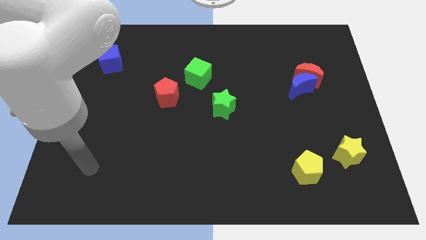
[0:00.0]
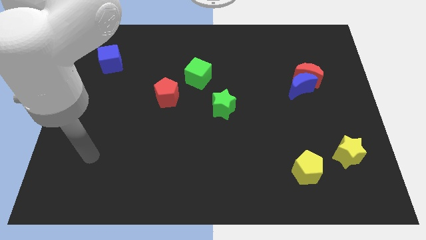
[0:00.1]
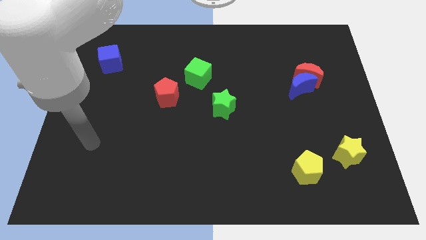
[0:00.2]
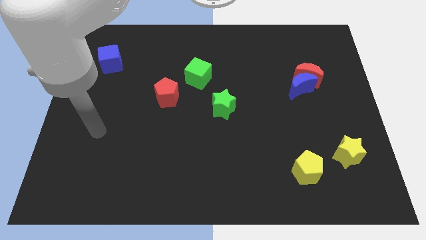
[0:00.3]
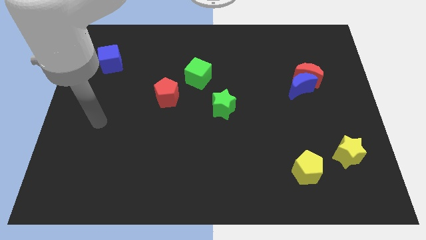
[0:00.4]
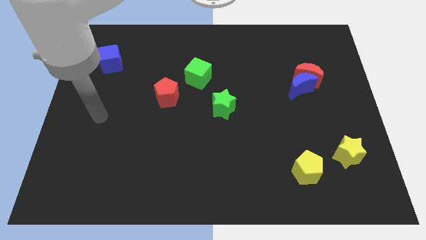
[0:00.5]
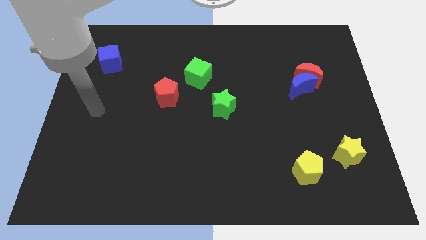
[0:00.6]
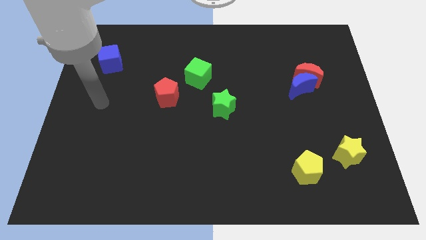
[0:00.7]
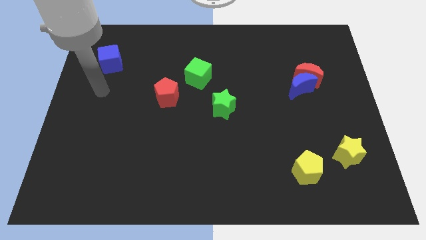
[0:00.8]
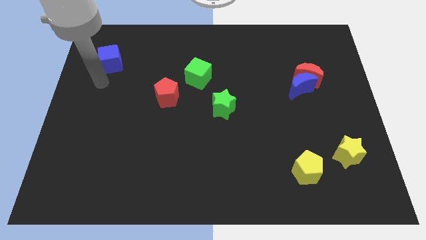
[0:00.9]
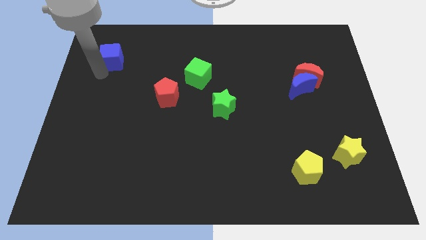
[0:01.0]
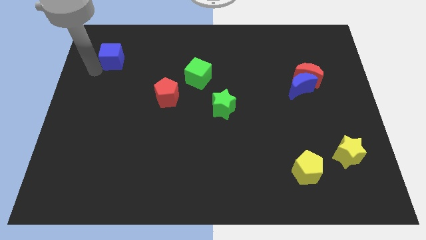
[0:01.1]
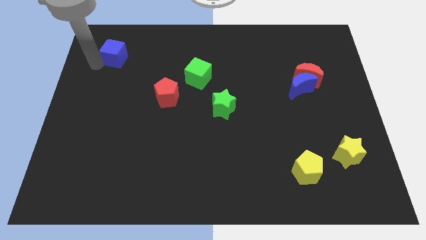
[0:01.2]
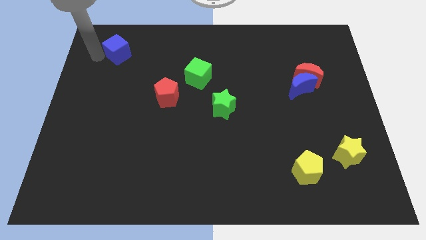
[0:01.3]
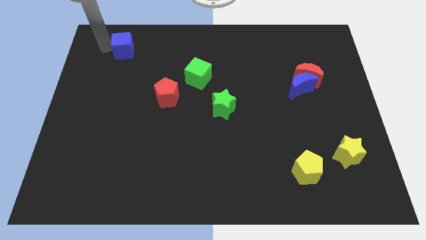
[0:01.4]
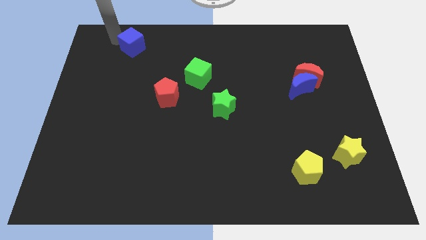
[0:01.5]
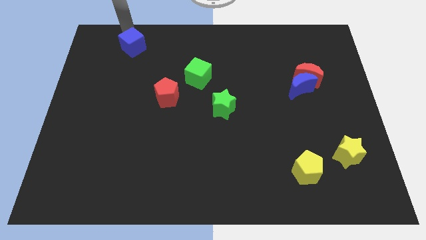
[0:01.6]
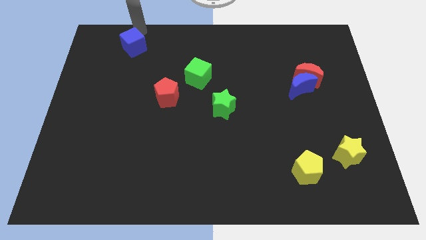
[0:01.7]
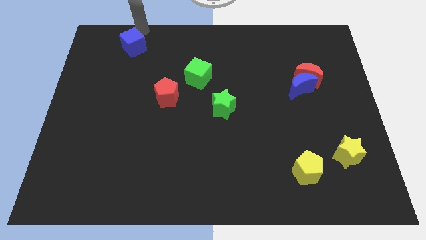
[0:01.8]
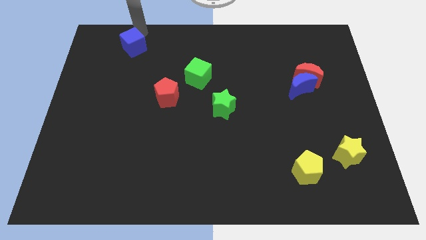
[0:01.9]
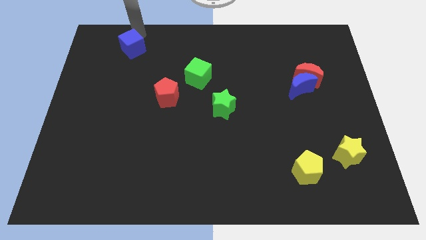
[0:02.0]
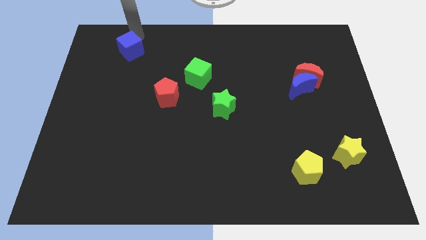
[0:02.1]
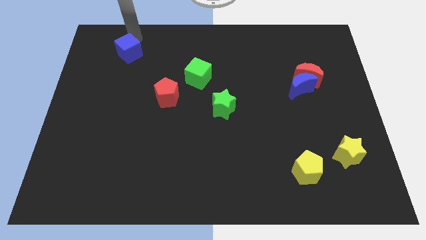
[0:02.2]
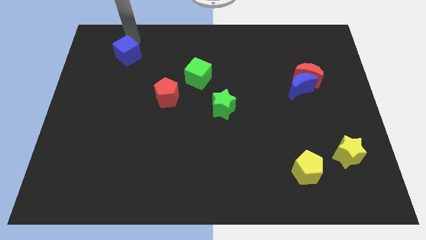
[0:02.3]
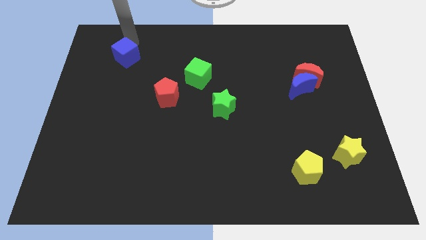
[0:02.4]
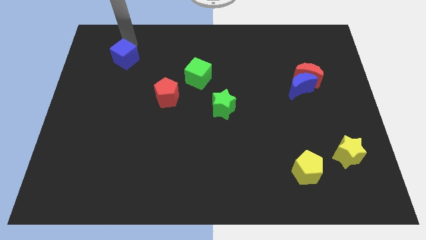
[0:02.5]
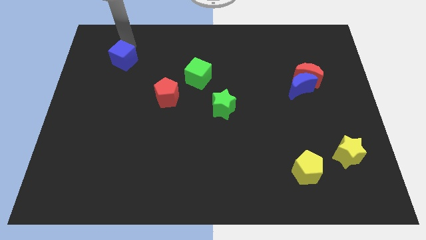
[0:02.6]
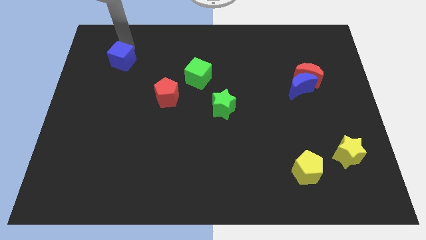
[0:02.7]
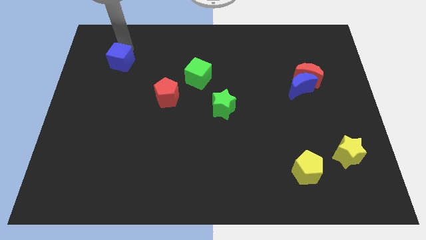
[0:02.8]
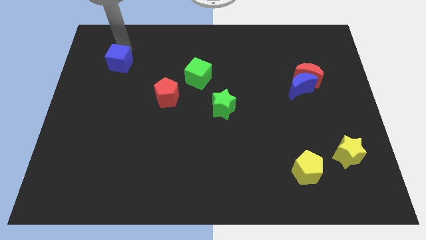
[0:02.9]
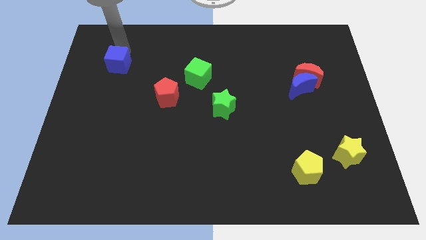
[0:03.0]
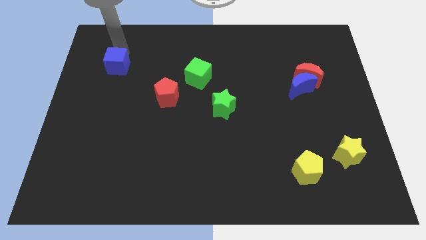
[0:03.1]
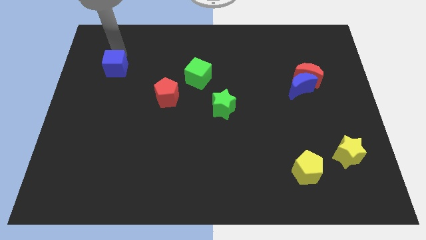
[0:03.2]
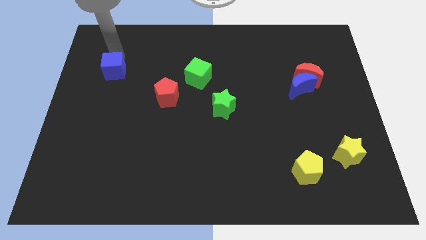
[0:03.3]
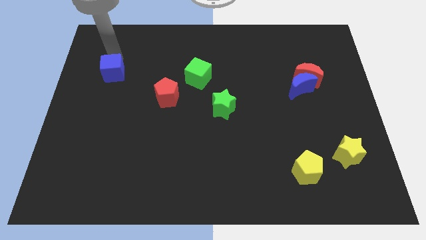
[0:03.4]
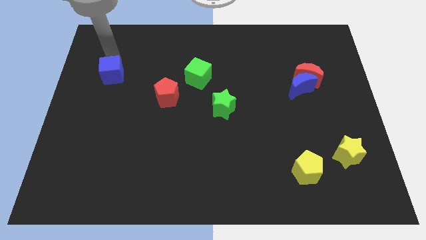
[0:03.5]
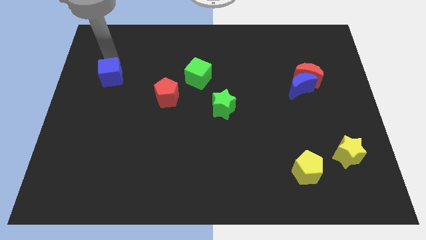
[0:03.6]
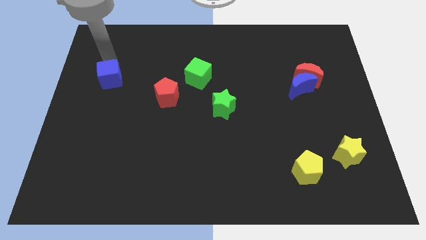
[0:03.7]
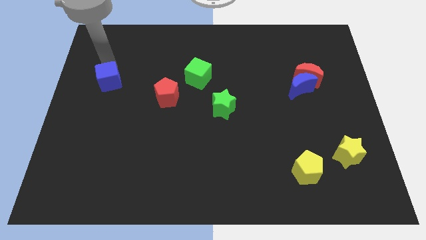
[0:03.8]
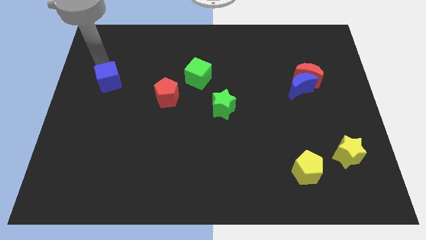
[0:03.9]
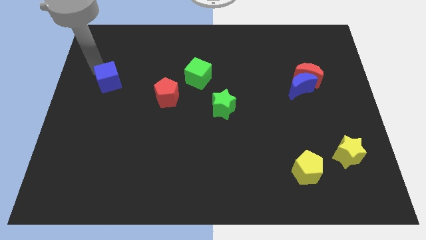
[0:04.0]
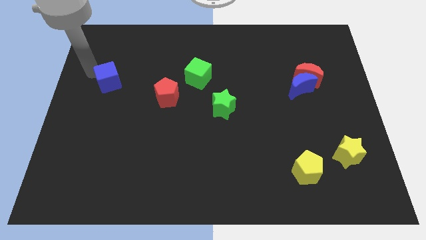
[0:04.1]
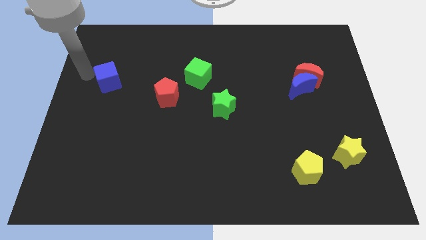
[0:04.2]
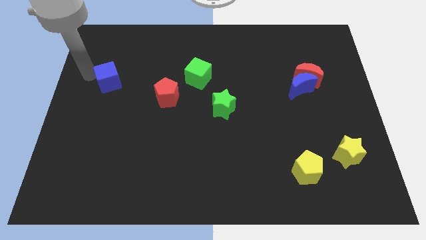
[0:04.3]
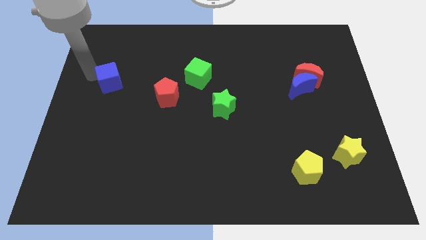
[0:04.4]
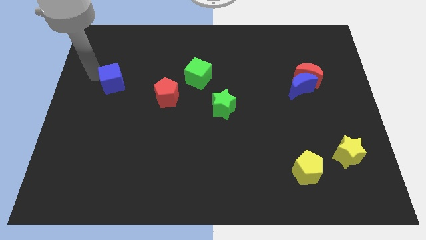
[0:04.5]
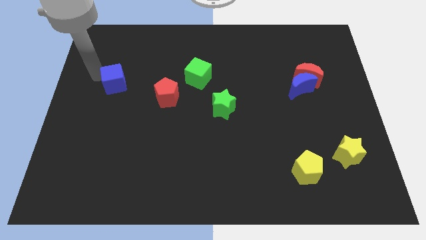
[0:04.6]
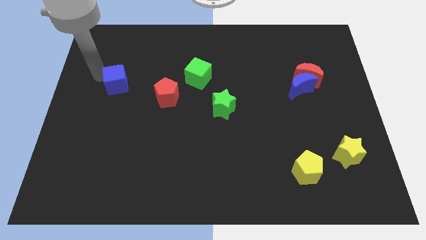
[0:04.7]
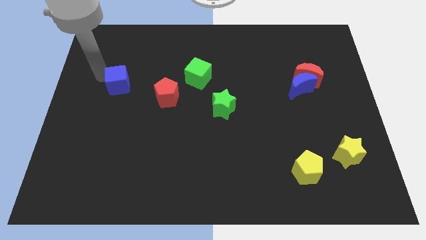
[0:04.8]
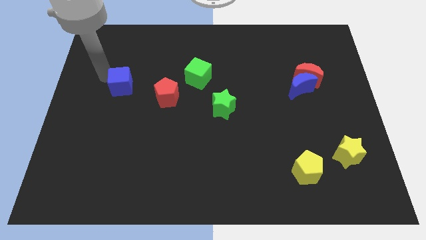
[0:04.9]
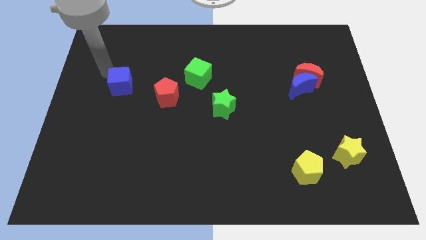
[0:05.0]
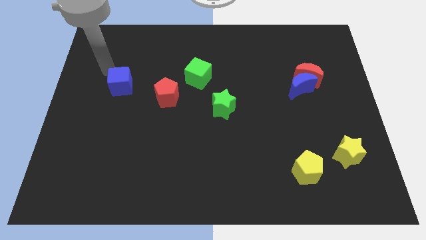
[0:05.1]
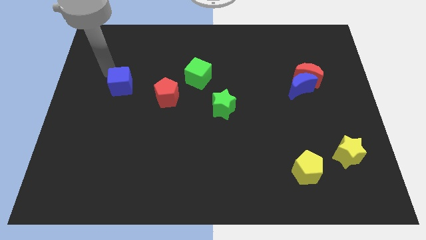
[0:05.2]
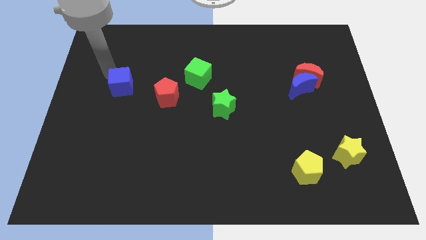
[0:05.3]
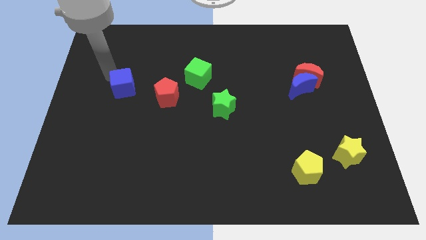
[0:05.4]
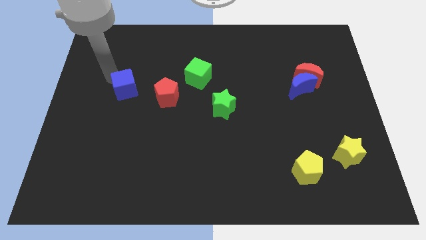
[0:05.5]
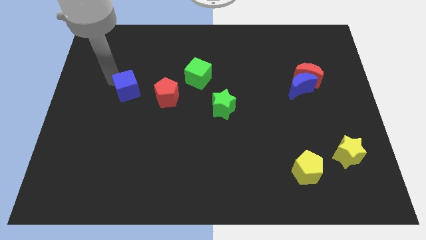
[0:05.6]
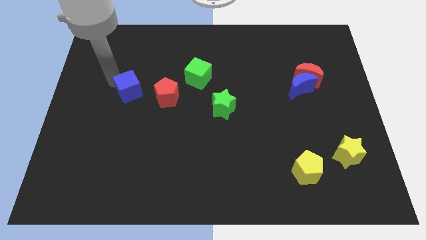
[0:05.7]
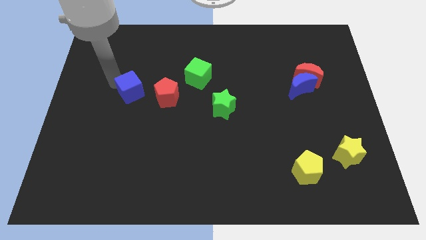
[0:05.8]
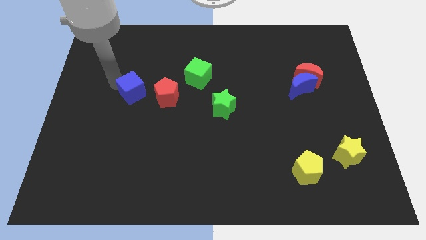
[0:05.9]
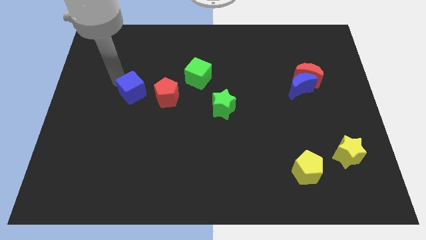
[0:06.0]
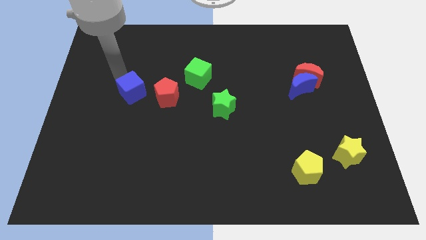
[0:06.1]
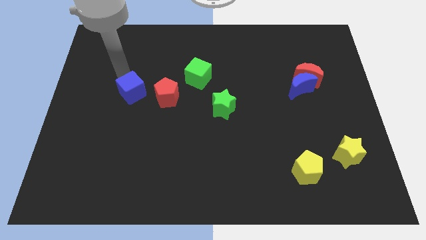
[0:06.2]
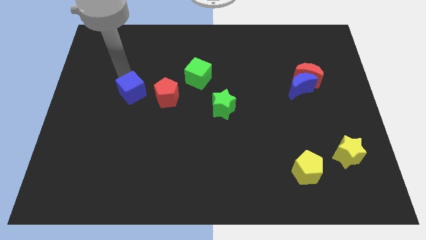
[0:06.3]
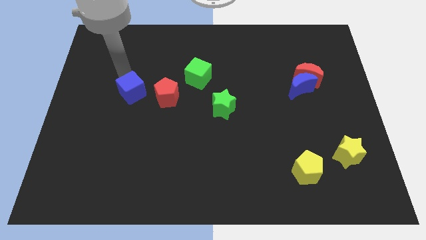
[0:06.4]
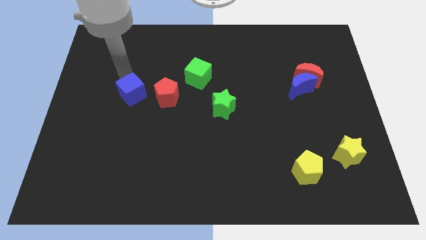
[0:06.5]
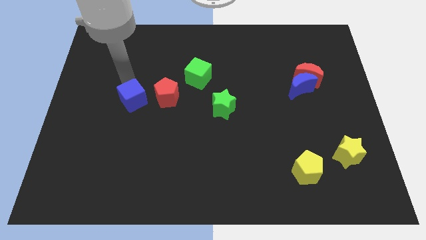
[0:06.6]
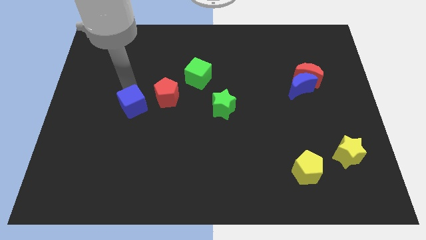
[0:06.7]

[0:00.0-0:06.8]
put the blue cube to the bottom left side of the red pentagon

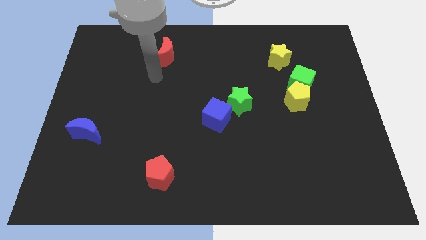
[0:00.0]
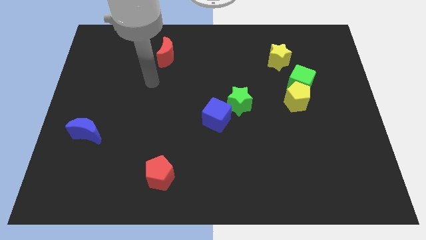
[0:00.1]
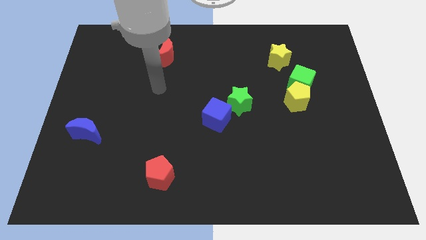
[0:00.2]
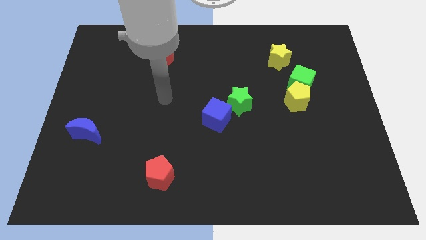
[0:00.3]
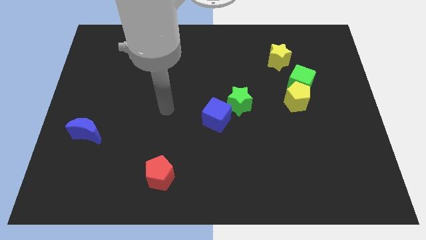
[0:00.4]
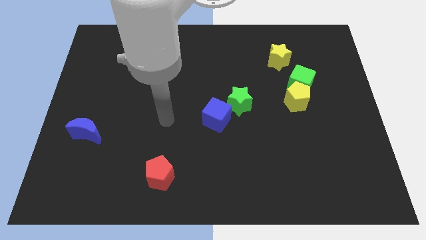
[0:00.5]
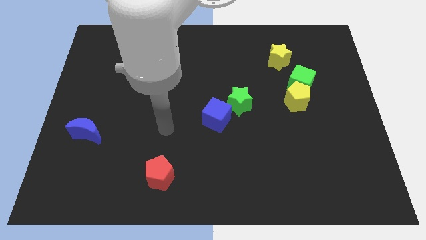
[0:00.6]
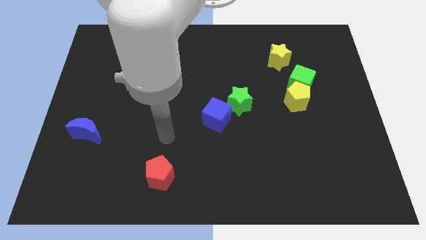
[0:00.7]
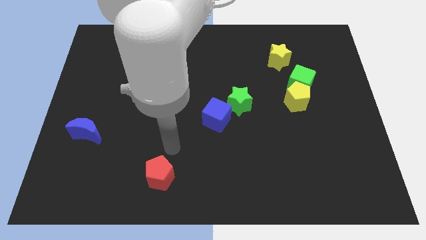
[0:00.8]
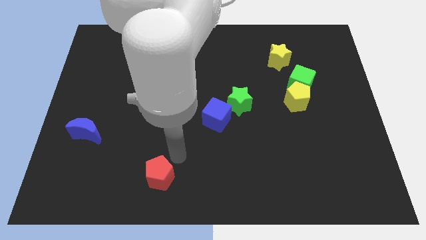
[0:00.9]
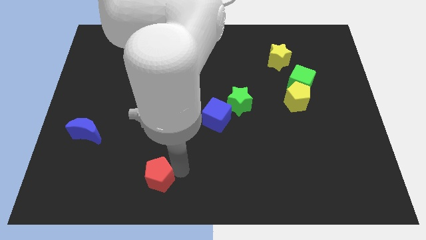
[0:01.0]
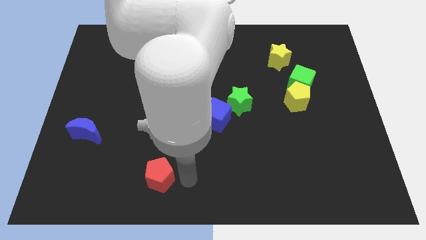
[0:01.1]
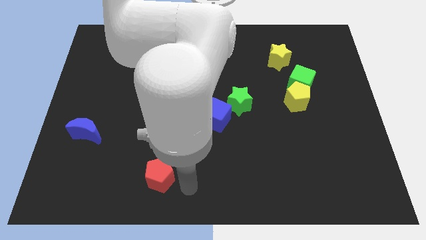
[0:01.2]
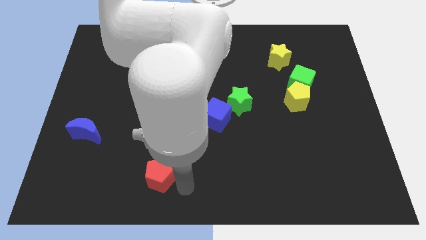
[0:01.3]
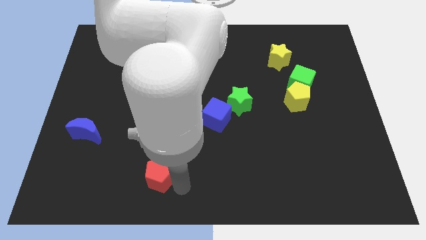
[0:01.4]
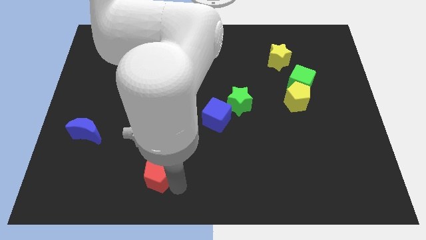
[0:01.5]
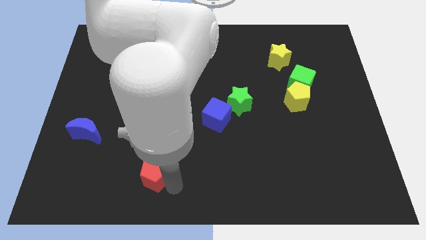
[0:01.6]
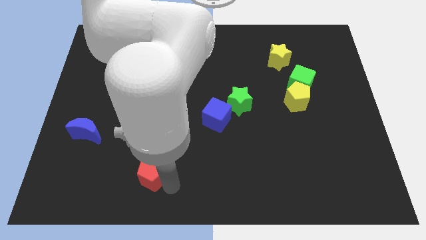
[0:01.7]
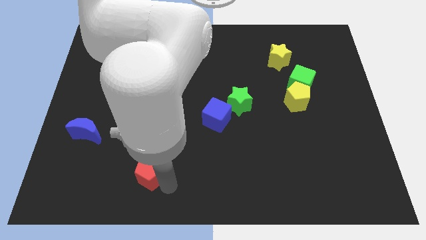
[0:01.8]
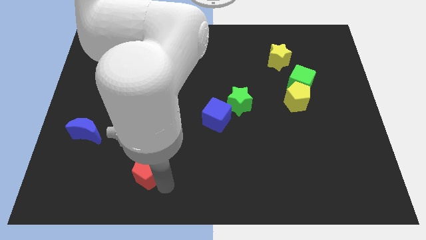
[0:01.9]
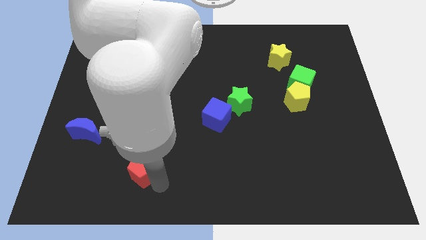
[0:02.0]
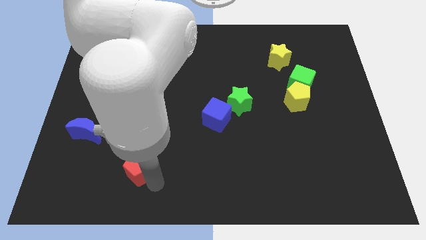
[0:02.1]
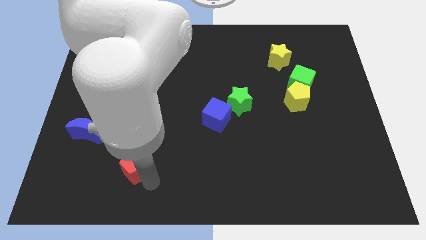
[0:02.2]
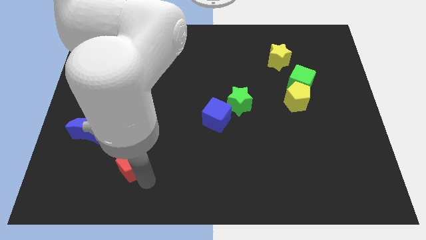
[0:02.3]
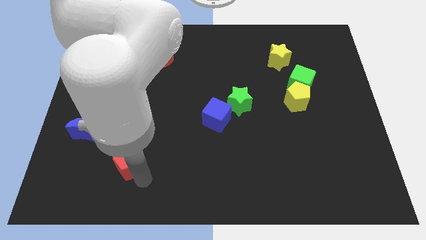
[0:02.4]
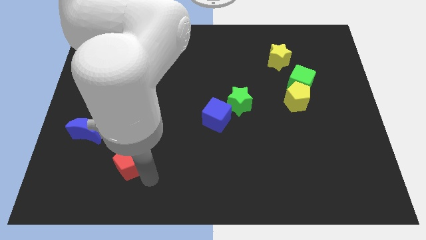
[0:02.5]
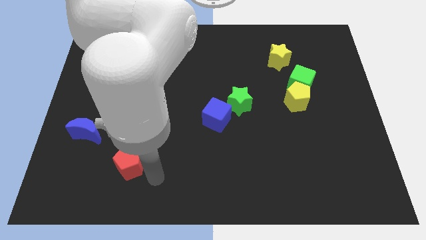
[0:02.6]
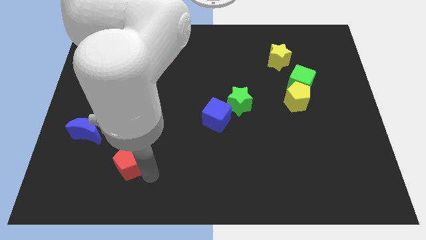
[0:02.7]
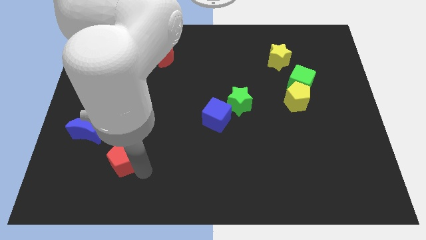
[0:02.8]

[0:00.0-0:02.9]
slide the red pentagon diagonally down and to the right of the blue moon
